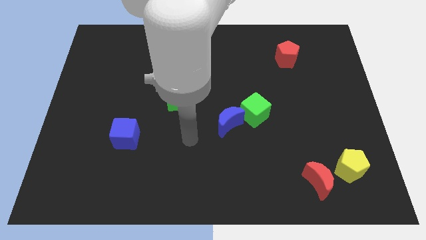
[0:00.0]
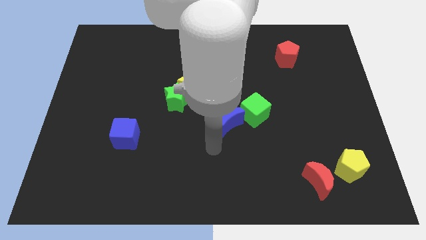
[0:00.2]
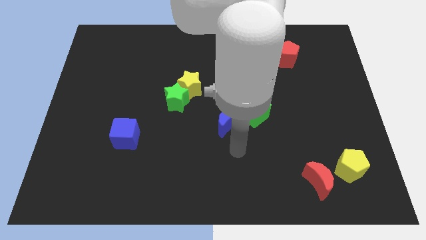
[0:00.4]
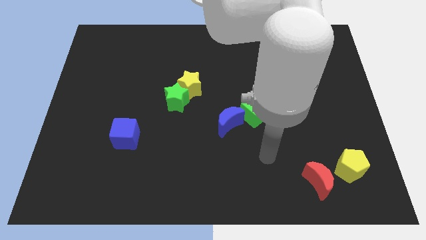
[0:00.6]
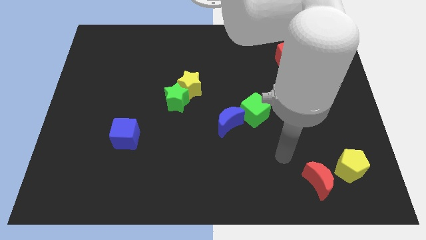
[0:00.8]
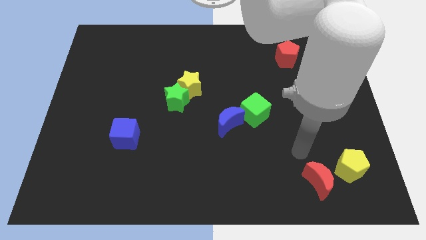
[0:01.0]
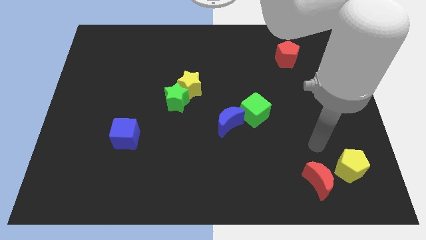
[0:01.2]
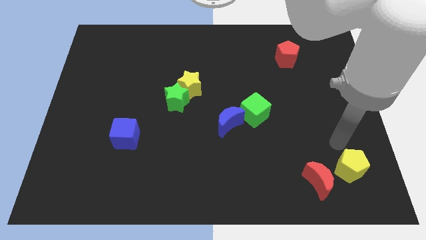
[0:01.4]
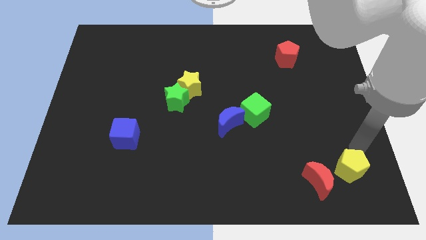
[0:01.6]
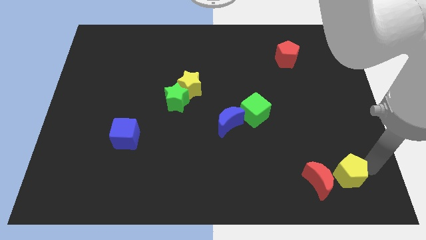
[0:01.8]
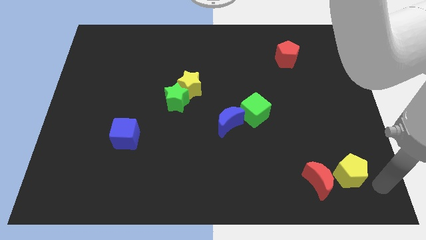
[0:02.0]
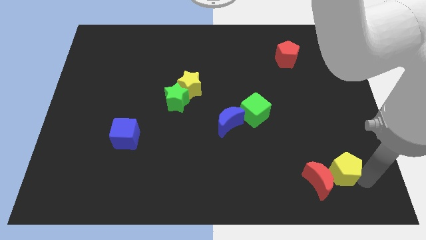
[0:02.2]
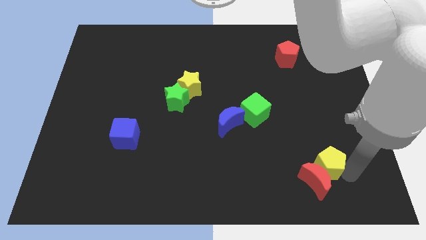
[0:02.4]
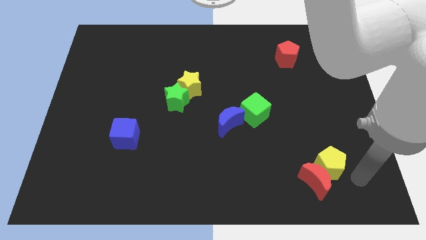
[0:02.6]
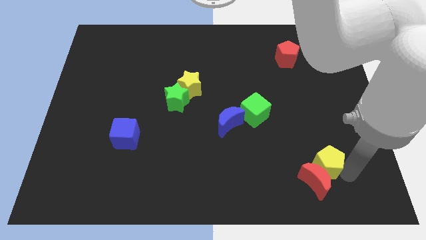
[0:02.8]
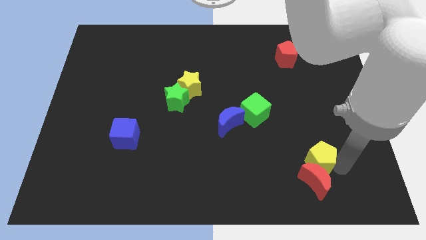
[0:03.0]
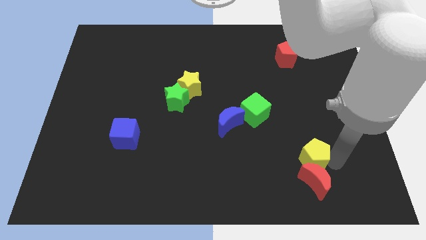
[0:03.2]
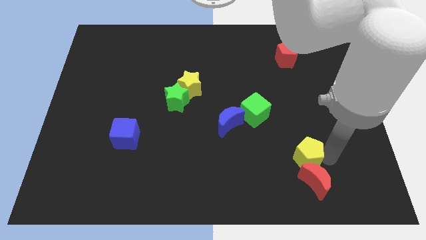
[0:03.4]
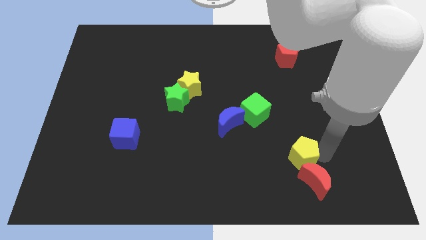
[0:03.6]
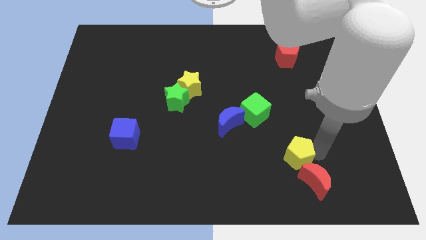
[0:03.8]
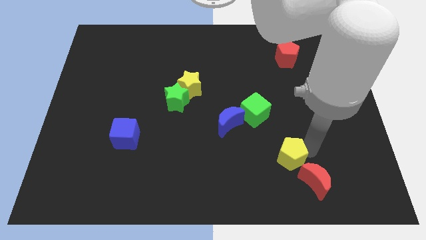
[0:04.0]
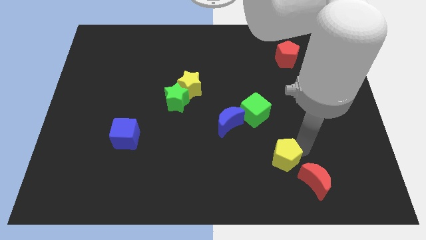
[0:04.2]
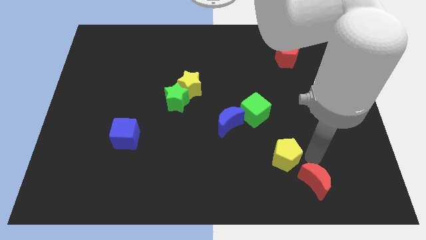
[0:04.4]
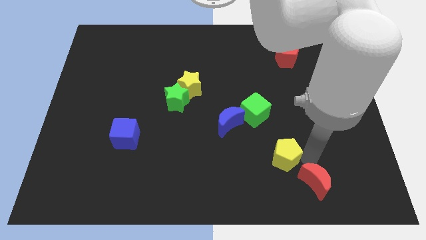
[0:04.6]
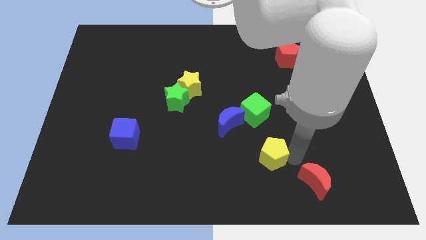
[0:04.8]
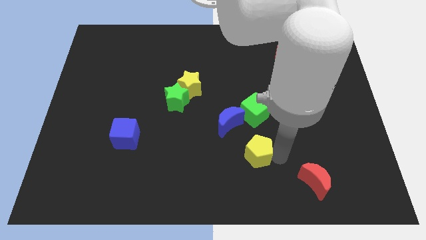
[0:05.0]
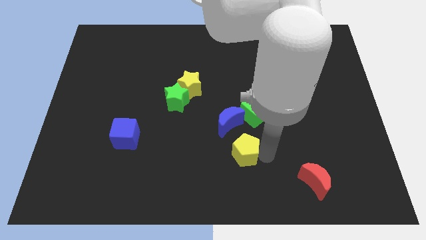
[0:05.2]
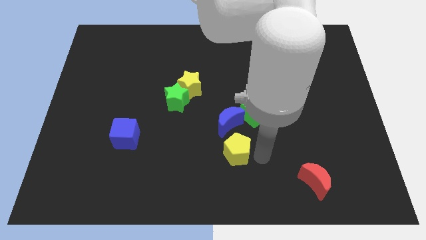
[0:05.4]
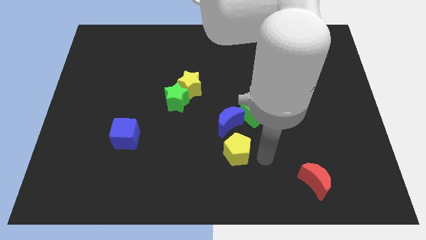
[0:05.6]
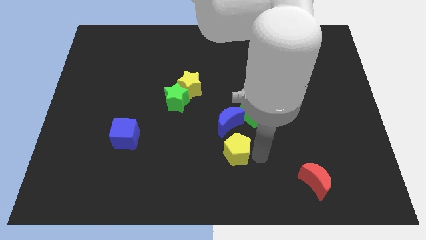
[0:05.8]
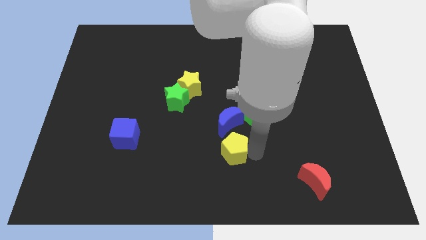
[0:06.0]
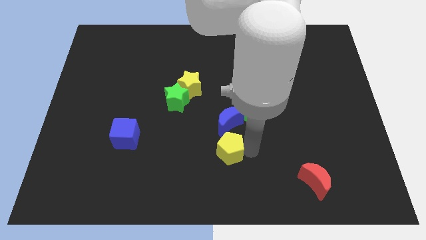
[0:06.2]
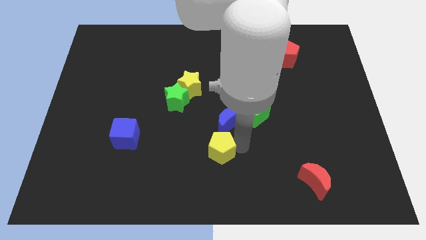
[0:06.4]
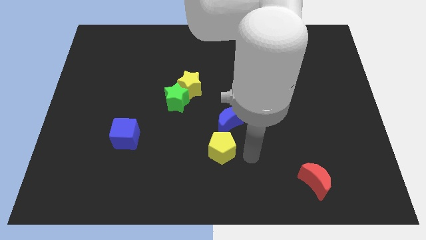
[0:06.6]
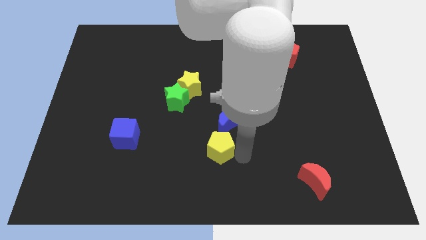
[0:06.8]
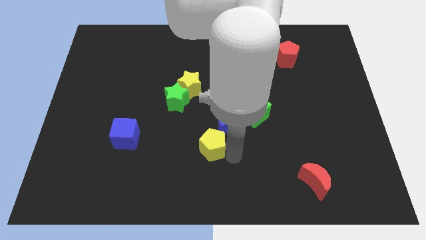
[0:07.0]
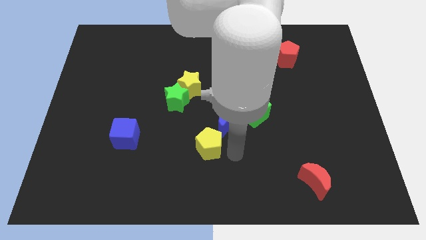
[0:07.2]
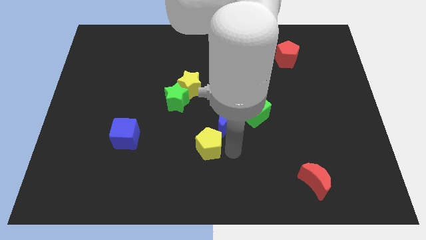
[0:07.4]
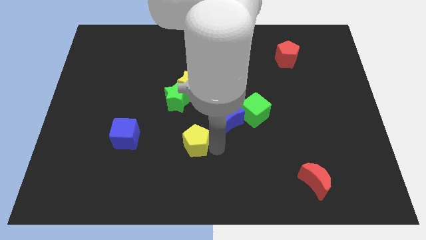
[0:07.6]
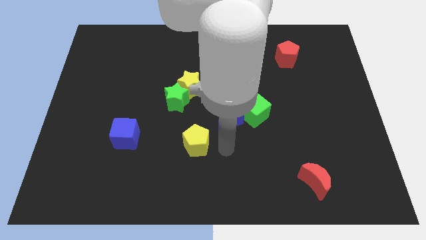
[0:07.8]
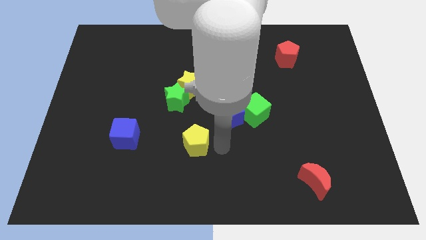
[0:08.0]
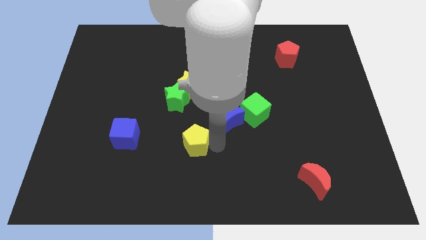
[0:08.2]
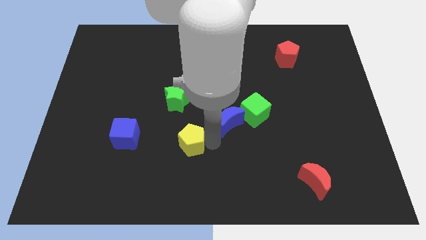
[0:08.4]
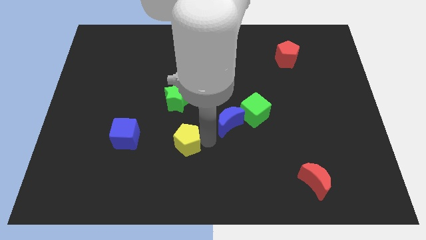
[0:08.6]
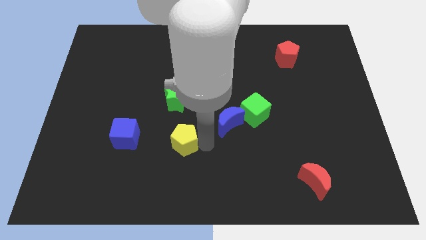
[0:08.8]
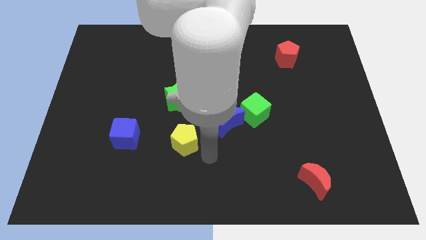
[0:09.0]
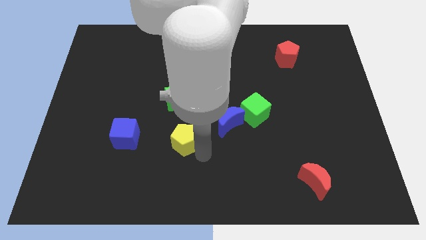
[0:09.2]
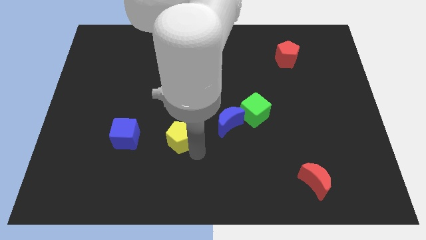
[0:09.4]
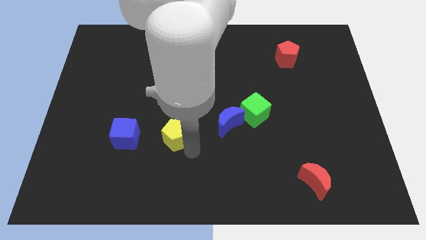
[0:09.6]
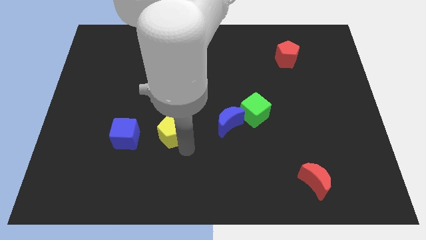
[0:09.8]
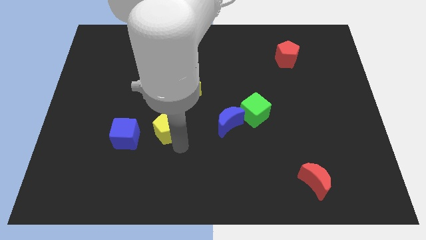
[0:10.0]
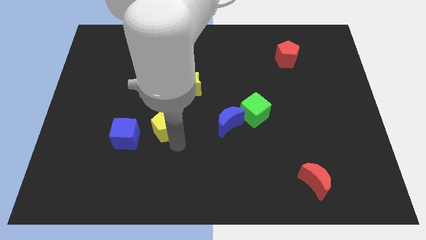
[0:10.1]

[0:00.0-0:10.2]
move the yellow pentagon to the bottom left side of the green star

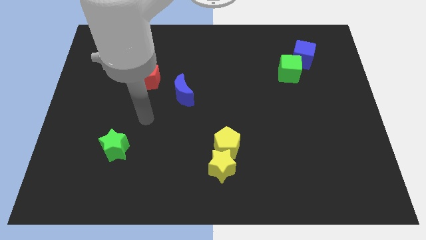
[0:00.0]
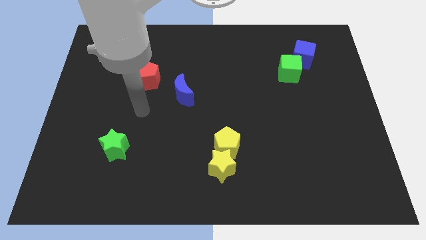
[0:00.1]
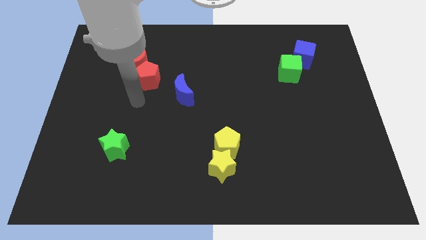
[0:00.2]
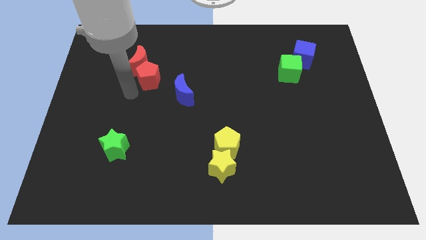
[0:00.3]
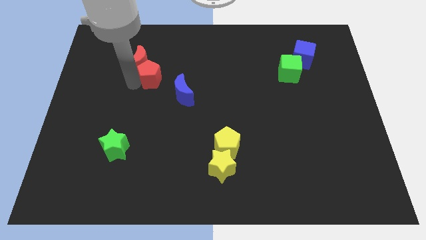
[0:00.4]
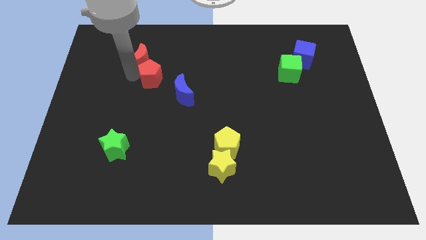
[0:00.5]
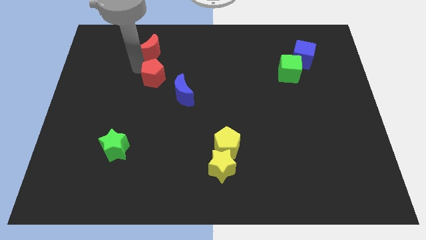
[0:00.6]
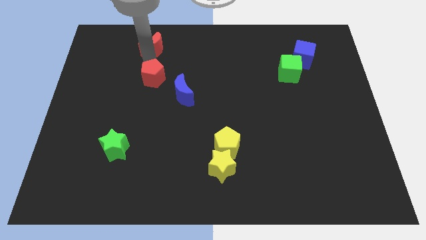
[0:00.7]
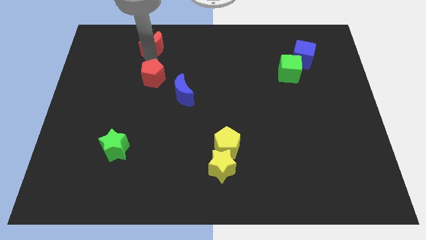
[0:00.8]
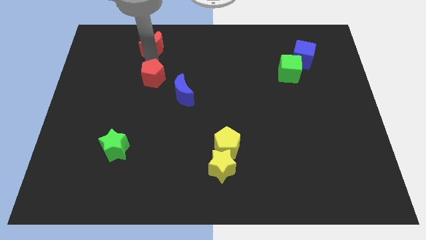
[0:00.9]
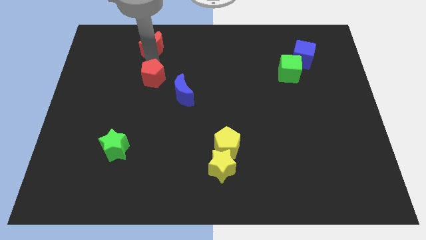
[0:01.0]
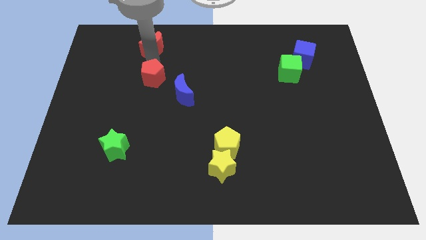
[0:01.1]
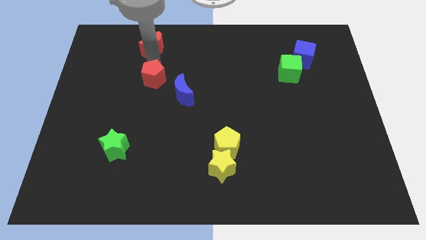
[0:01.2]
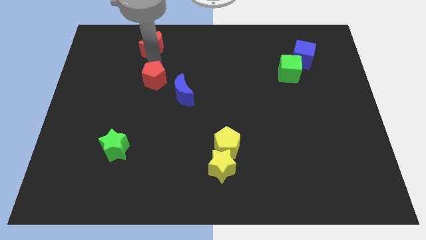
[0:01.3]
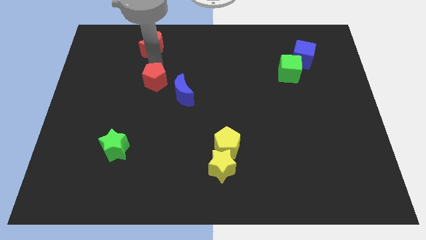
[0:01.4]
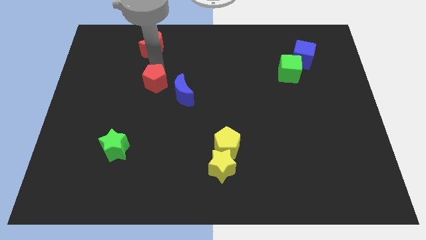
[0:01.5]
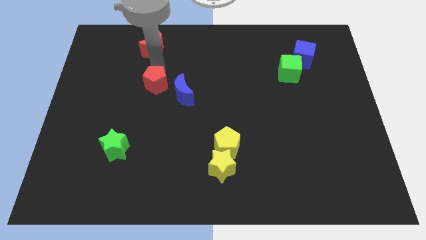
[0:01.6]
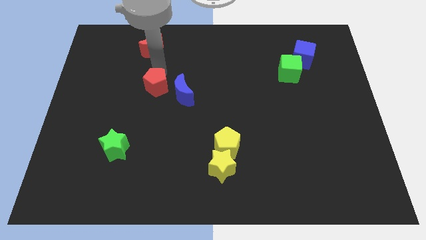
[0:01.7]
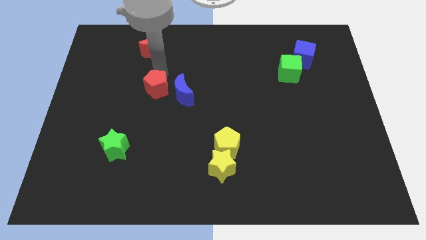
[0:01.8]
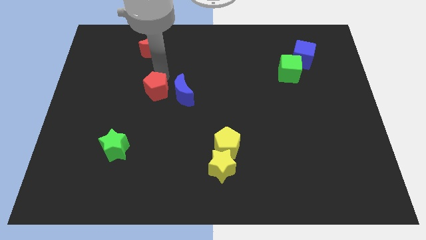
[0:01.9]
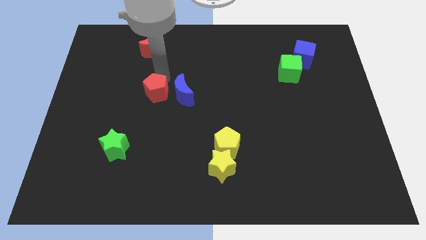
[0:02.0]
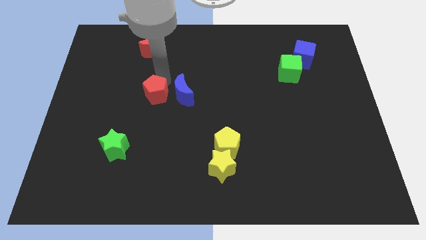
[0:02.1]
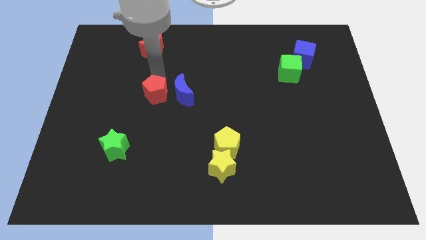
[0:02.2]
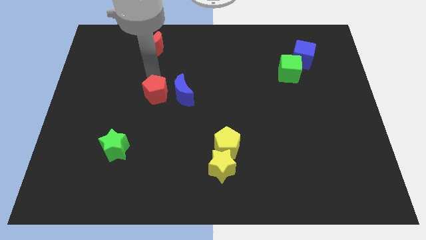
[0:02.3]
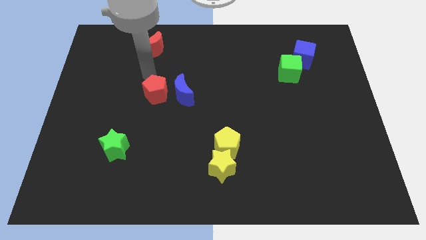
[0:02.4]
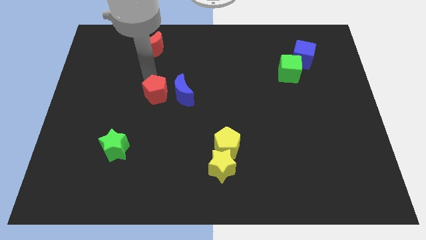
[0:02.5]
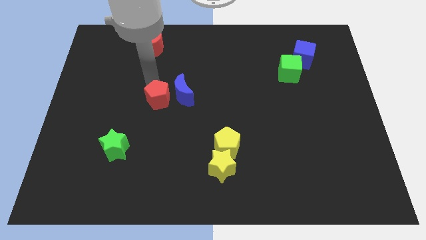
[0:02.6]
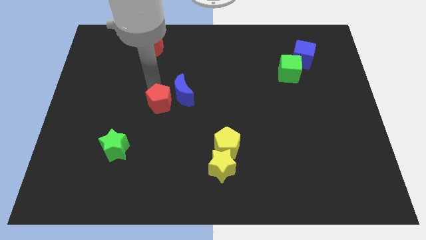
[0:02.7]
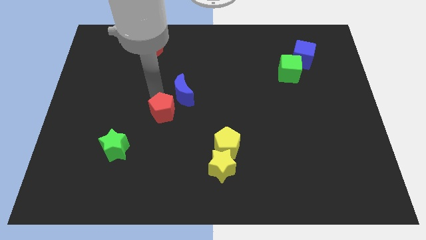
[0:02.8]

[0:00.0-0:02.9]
slide the red pentagon to the bottom of the blue moon
